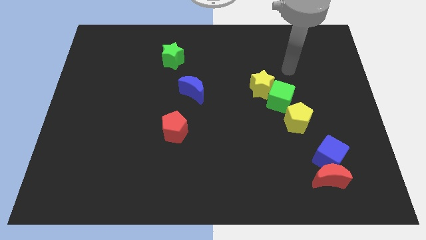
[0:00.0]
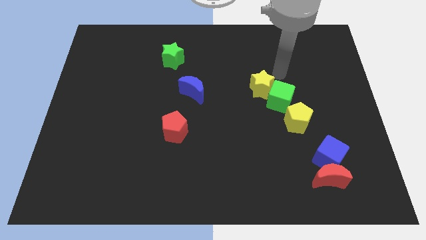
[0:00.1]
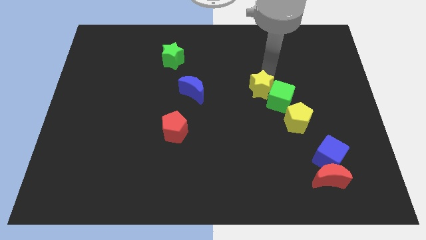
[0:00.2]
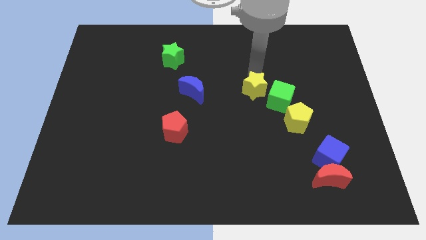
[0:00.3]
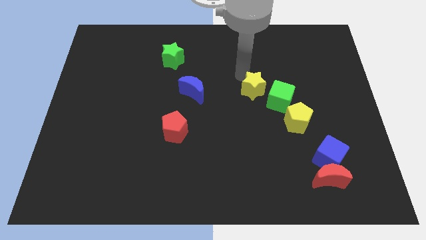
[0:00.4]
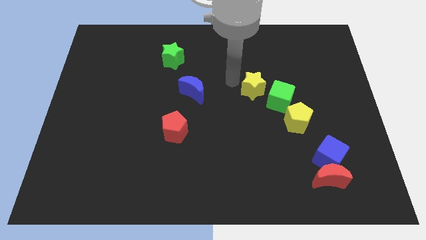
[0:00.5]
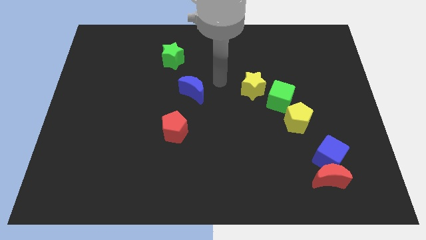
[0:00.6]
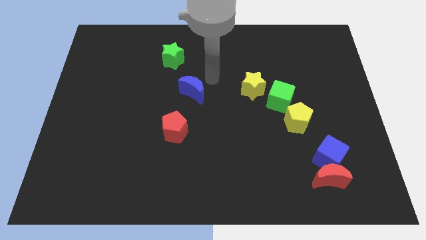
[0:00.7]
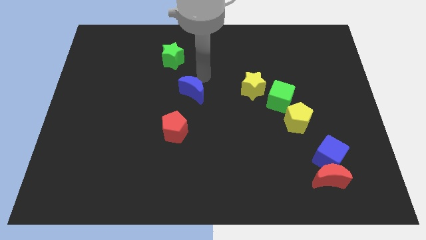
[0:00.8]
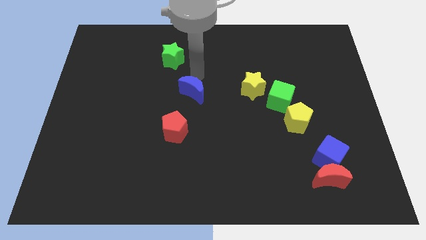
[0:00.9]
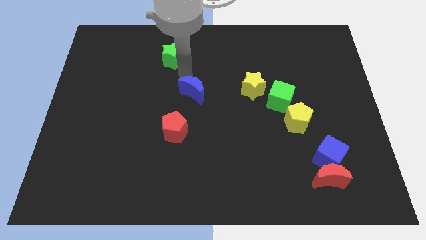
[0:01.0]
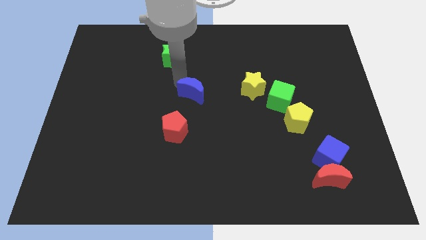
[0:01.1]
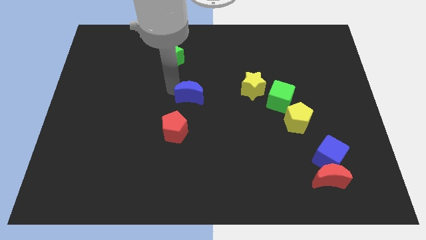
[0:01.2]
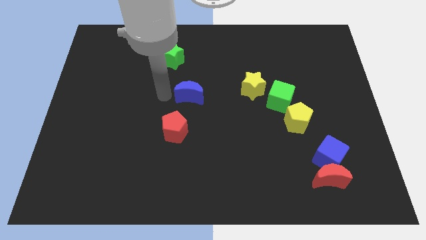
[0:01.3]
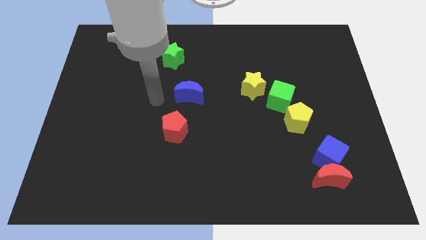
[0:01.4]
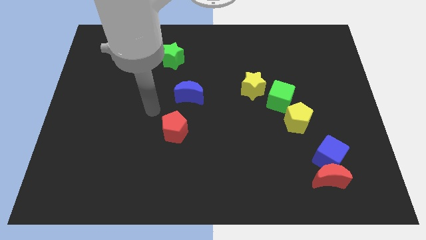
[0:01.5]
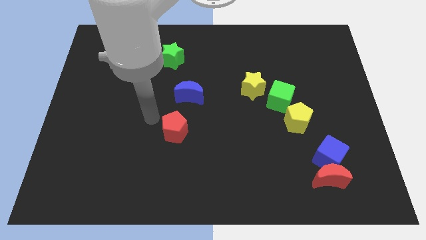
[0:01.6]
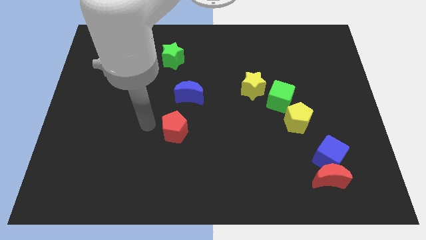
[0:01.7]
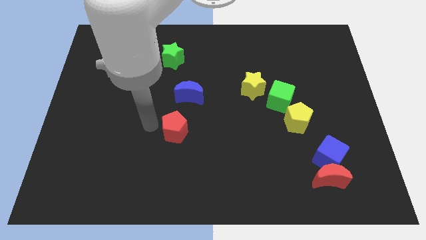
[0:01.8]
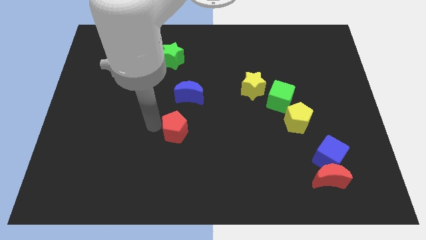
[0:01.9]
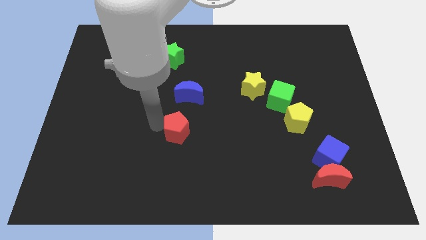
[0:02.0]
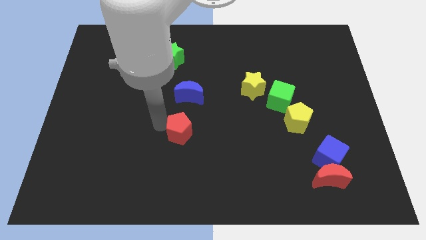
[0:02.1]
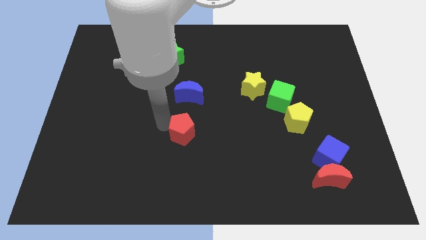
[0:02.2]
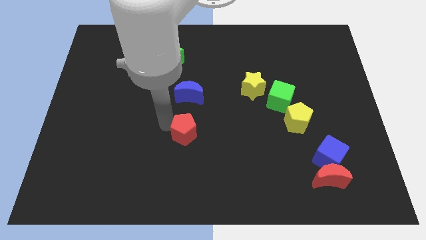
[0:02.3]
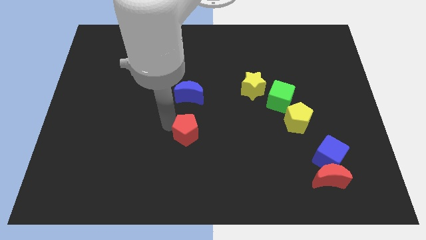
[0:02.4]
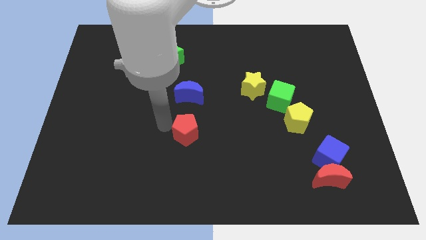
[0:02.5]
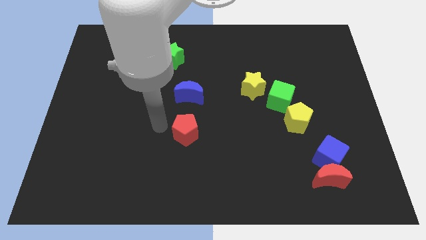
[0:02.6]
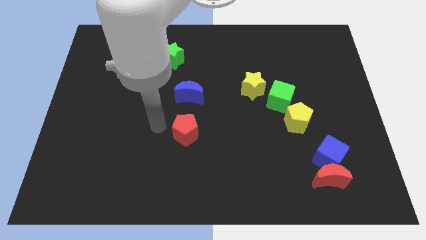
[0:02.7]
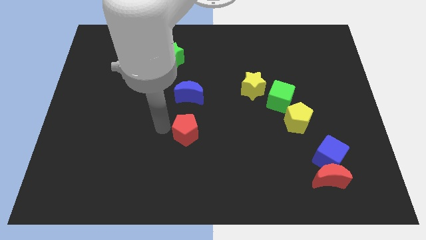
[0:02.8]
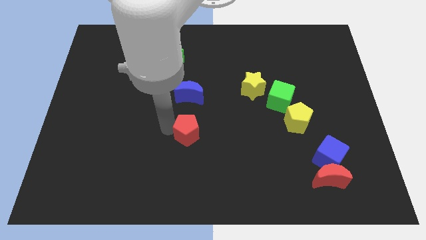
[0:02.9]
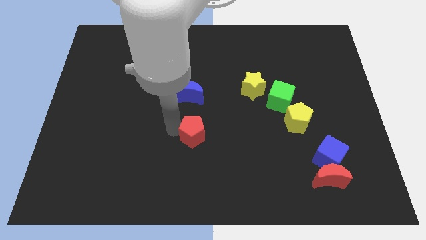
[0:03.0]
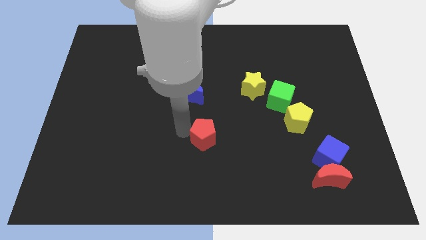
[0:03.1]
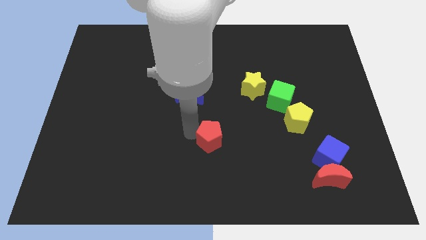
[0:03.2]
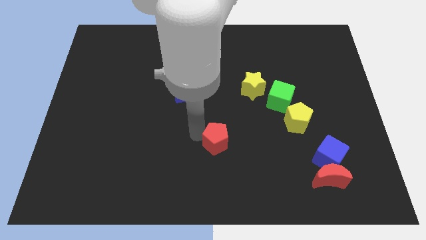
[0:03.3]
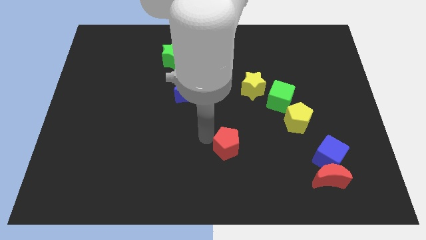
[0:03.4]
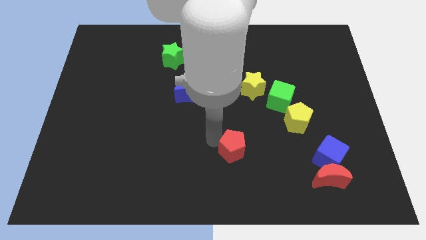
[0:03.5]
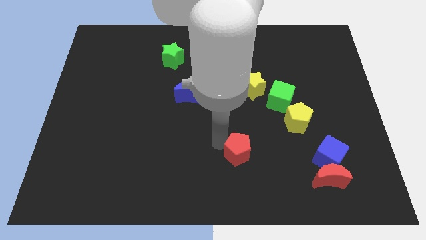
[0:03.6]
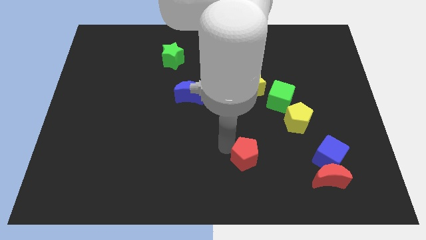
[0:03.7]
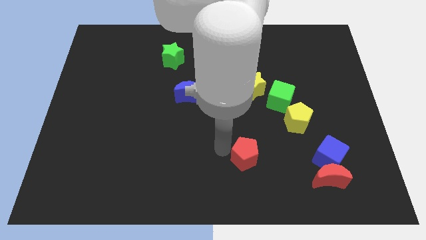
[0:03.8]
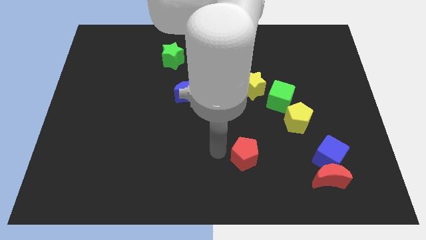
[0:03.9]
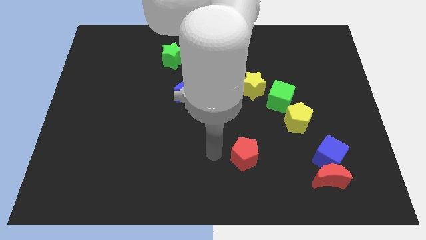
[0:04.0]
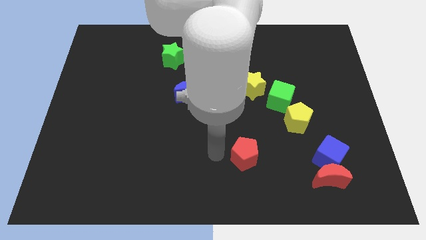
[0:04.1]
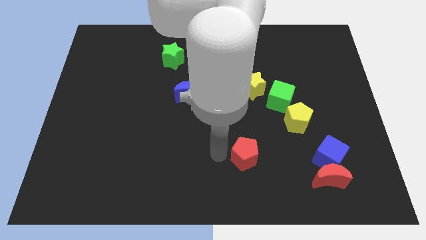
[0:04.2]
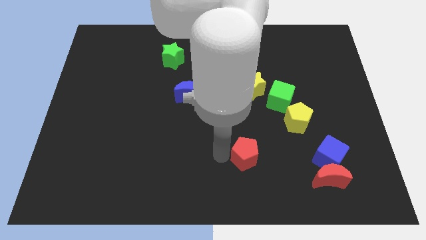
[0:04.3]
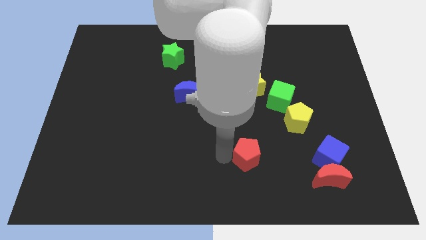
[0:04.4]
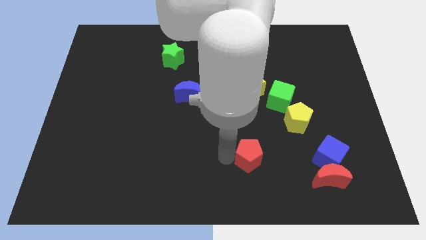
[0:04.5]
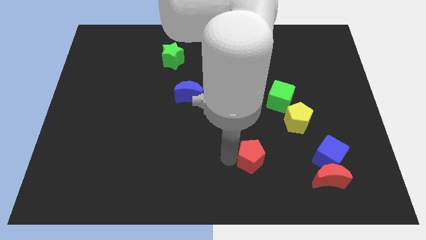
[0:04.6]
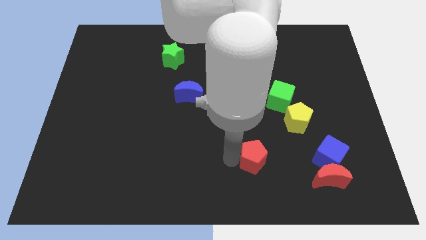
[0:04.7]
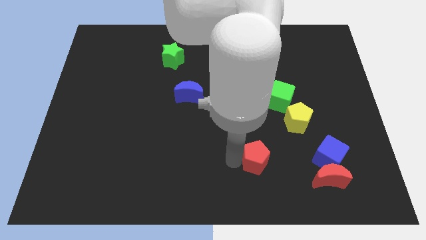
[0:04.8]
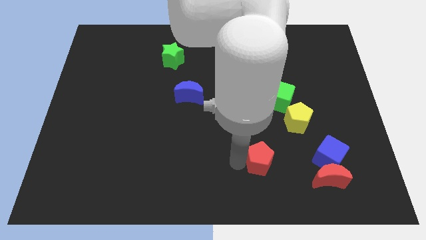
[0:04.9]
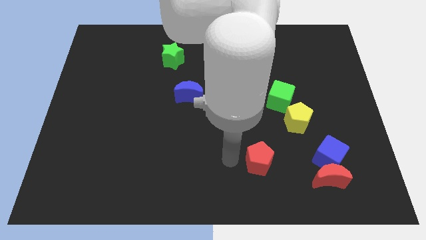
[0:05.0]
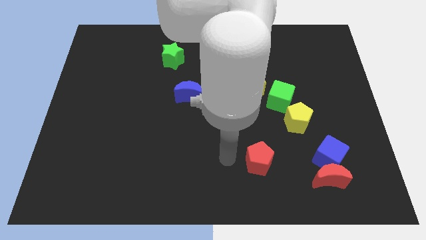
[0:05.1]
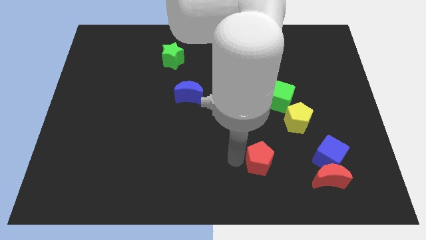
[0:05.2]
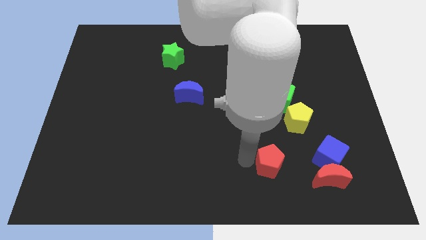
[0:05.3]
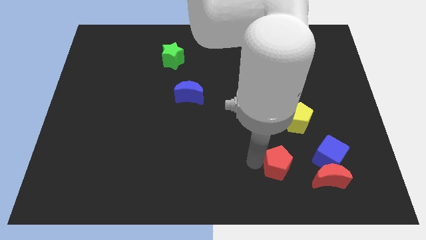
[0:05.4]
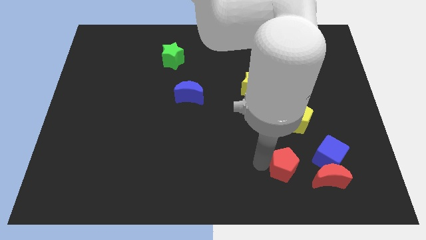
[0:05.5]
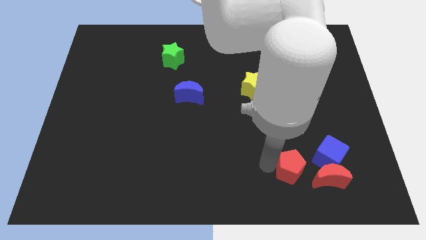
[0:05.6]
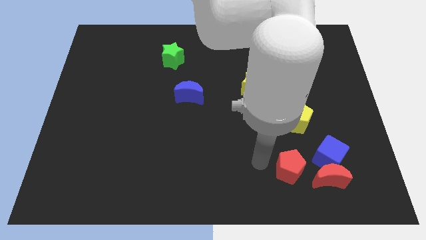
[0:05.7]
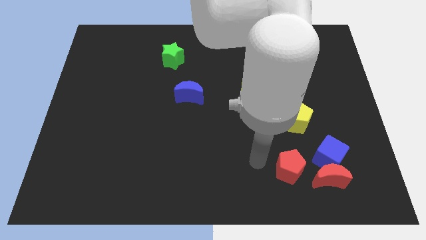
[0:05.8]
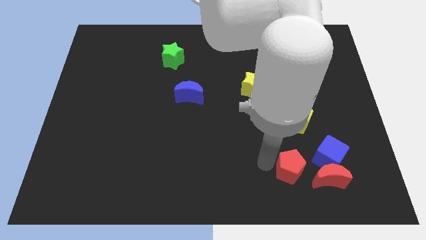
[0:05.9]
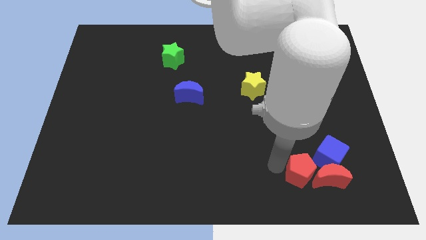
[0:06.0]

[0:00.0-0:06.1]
push the red pentagon next to the red moon
